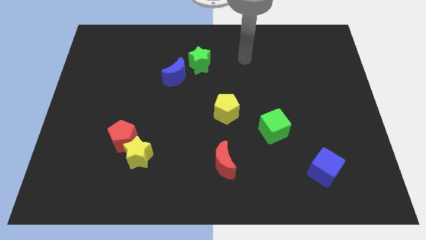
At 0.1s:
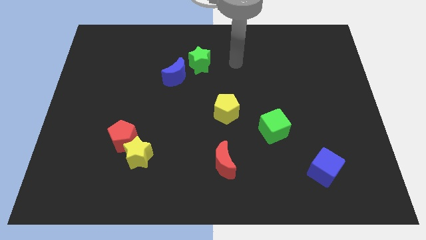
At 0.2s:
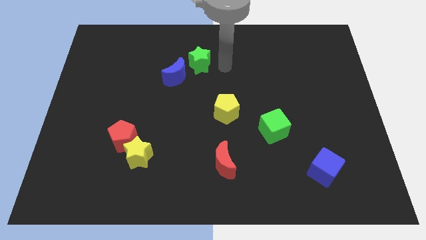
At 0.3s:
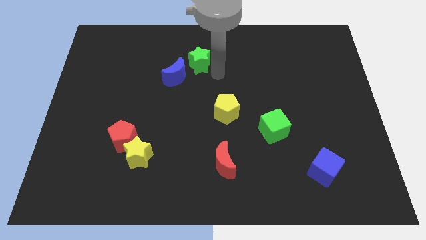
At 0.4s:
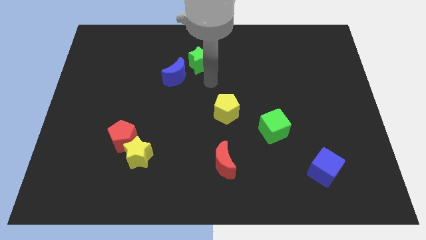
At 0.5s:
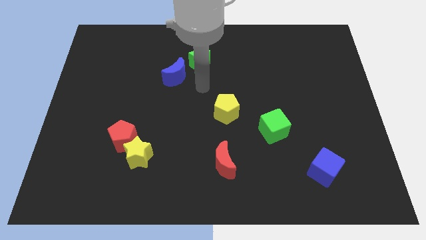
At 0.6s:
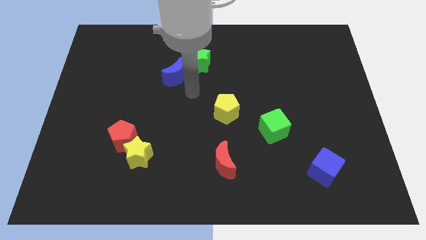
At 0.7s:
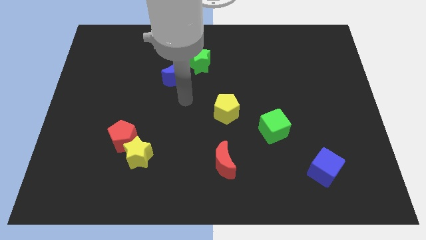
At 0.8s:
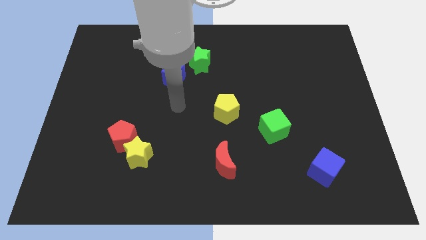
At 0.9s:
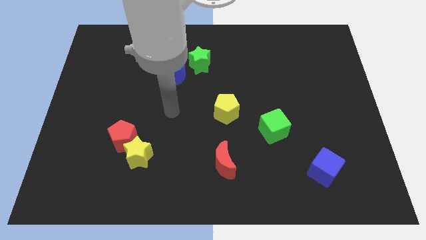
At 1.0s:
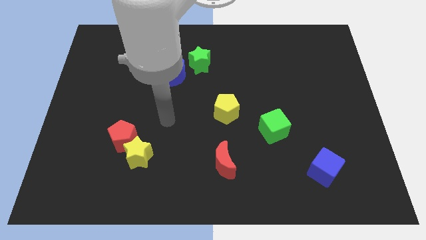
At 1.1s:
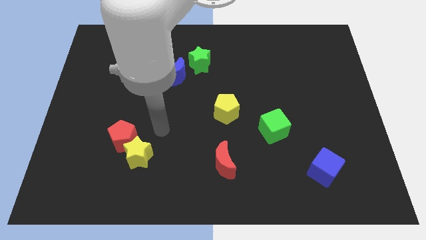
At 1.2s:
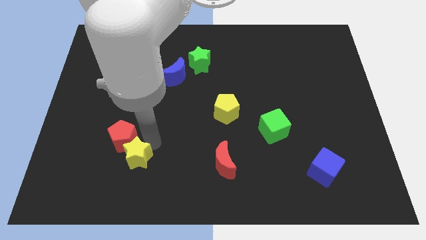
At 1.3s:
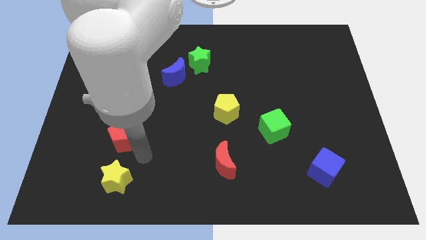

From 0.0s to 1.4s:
separate the red pentagon from the yellow star

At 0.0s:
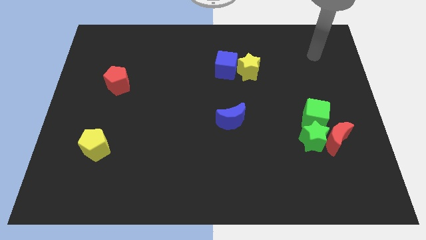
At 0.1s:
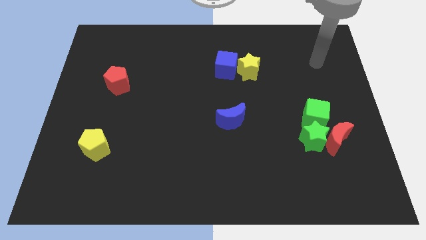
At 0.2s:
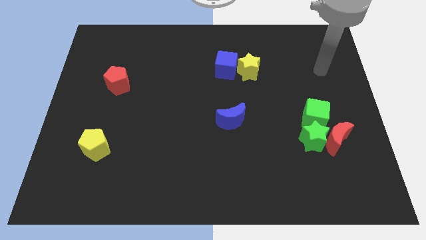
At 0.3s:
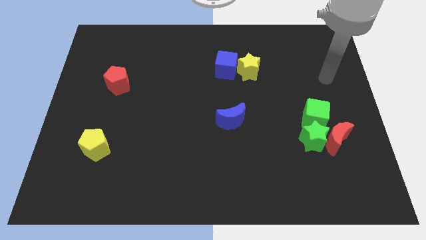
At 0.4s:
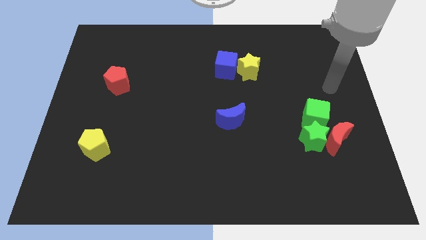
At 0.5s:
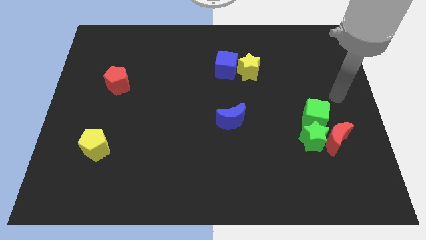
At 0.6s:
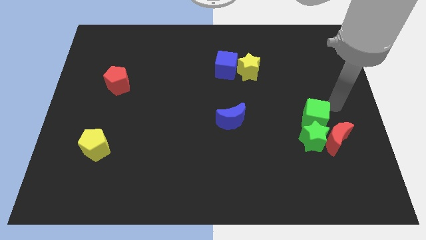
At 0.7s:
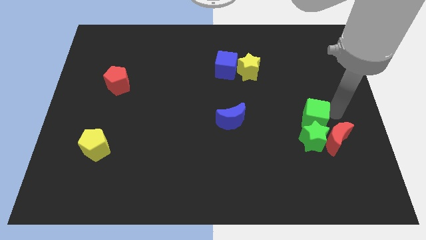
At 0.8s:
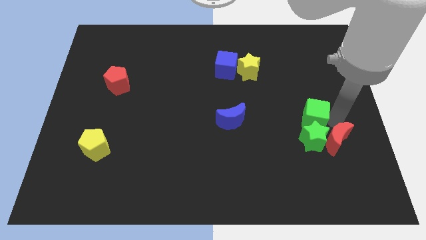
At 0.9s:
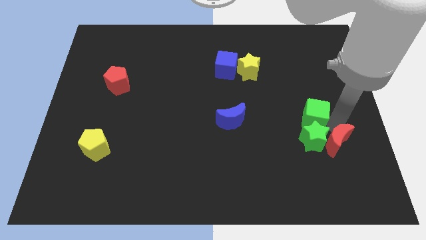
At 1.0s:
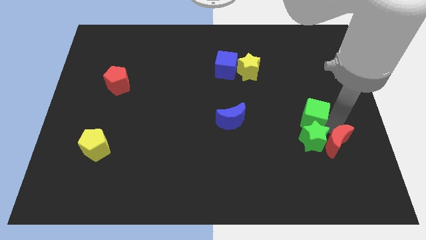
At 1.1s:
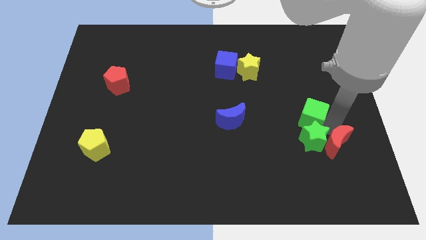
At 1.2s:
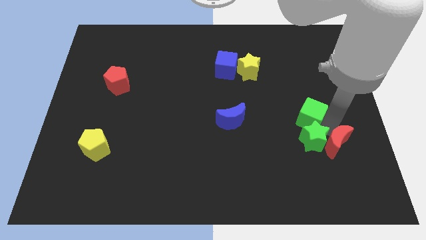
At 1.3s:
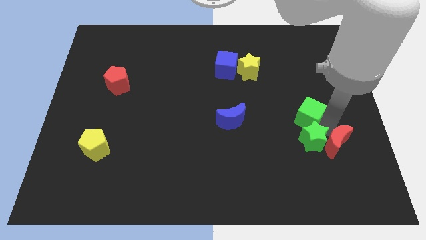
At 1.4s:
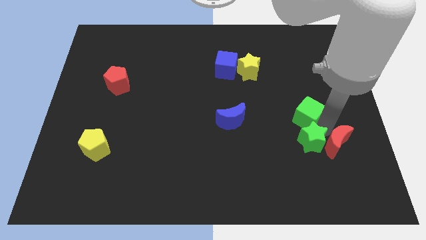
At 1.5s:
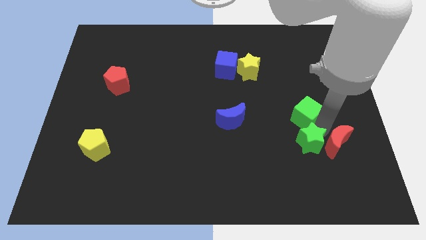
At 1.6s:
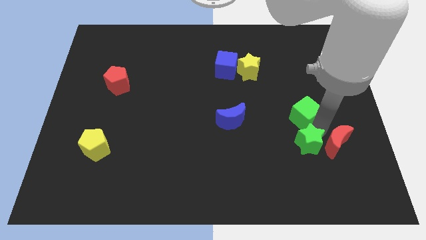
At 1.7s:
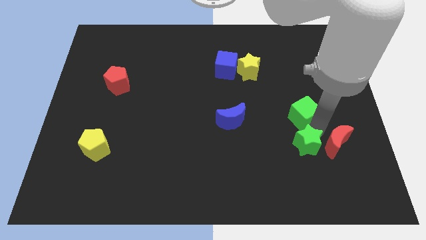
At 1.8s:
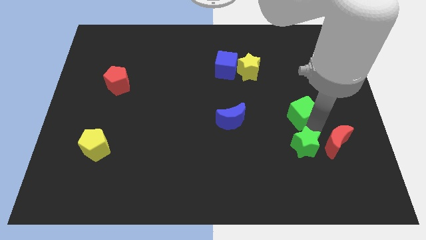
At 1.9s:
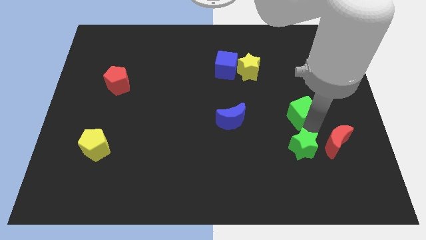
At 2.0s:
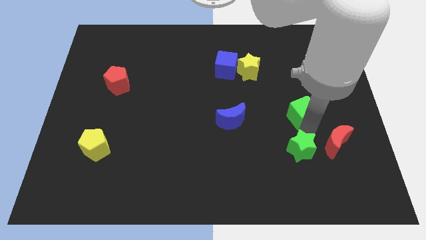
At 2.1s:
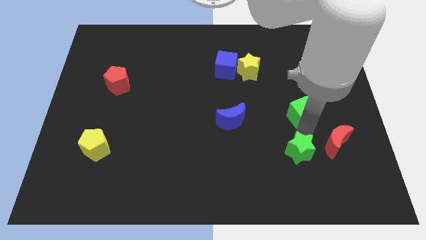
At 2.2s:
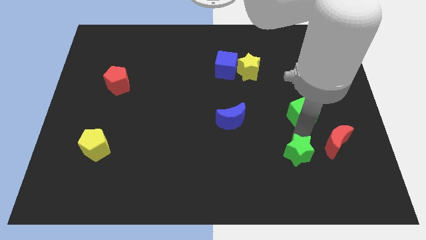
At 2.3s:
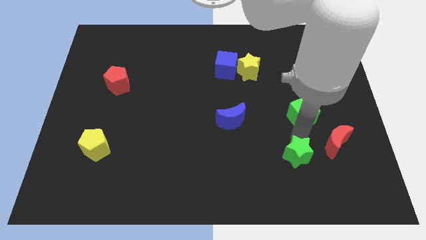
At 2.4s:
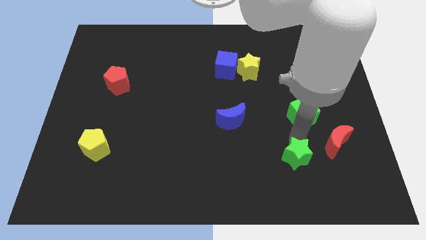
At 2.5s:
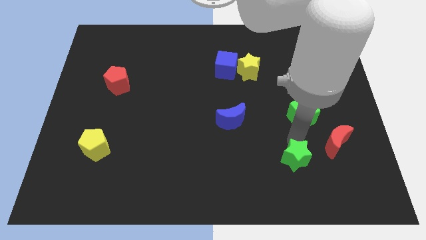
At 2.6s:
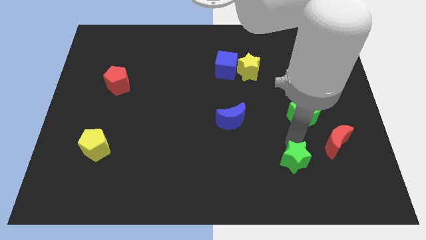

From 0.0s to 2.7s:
separate the green star from the red moon and green cube

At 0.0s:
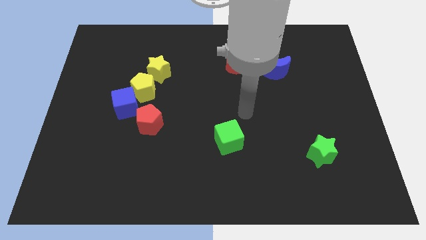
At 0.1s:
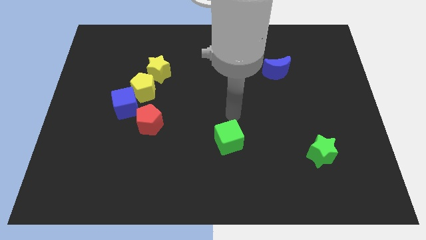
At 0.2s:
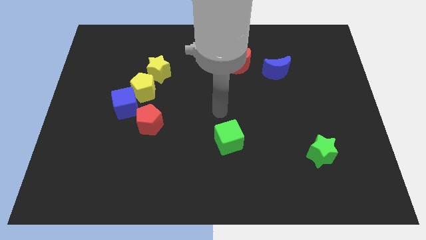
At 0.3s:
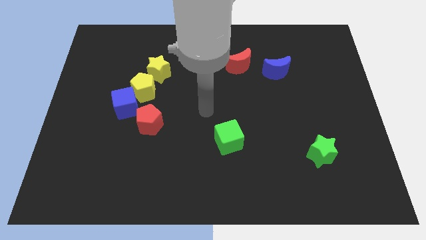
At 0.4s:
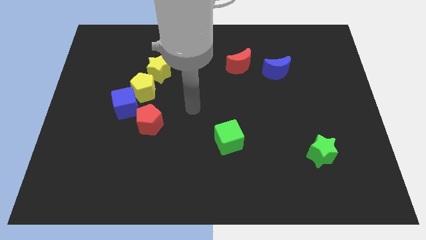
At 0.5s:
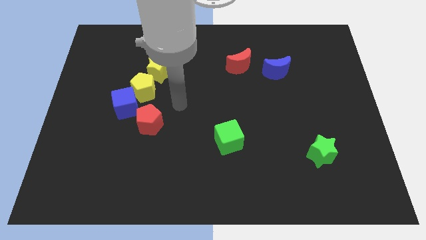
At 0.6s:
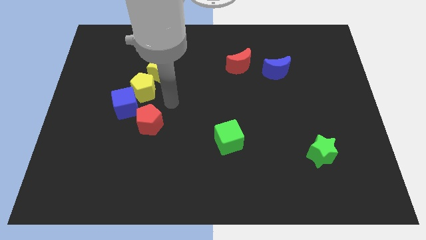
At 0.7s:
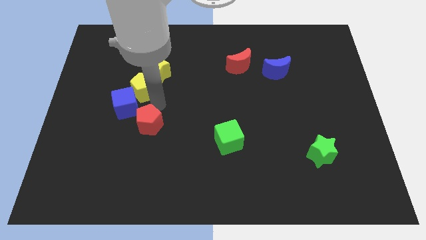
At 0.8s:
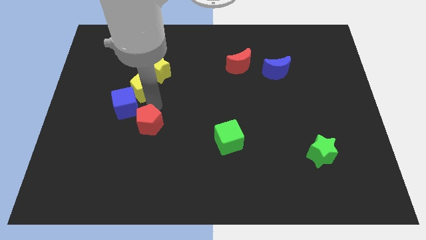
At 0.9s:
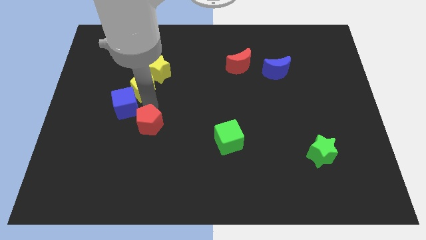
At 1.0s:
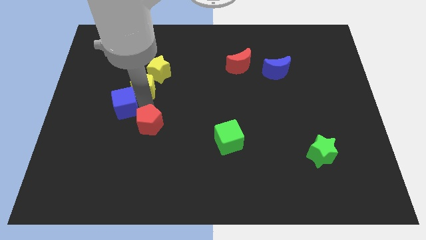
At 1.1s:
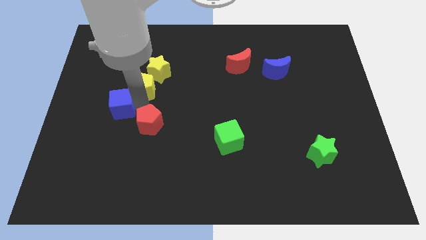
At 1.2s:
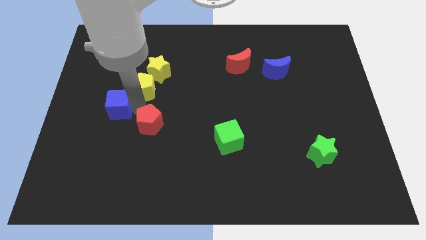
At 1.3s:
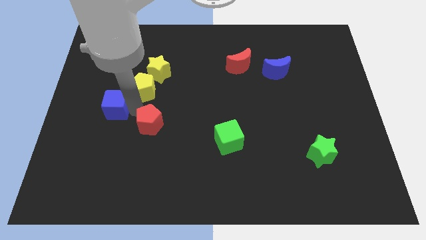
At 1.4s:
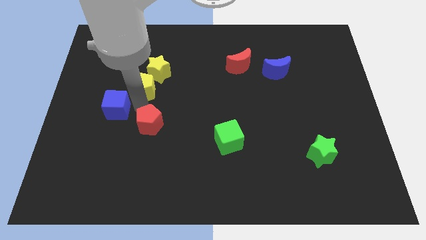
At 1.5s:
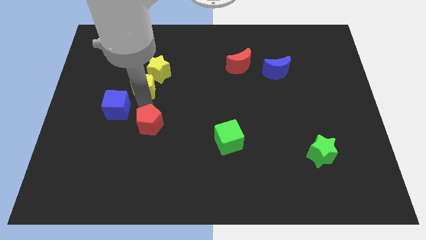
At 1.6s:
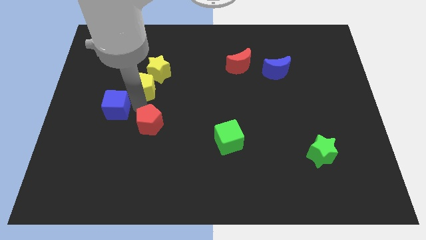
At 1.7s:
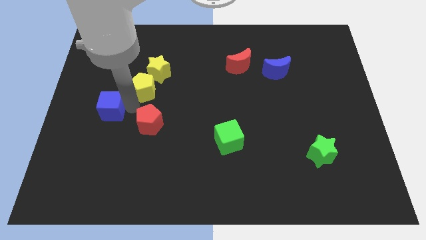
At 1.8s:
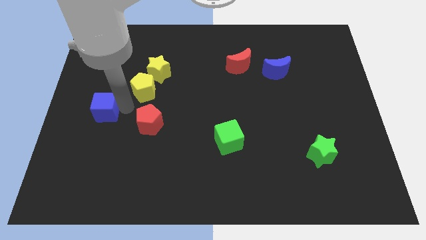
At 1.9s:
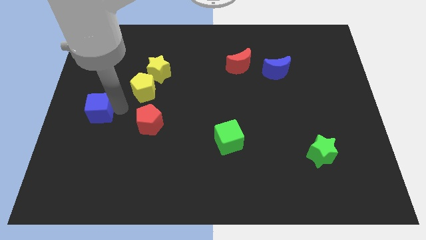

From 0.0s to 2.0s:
move the blue cube away from the yellow pentagon and red pentagon

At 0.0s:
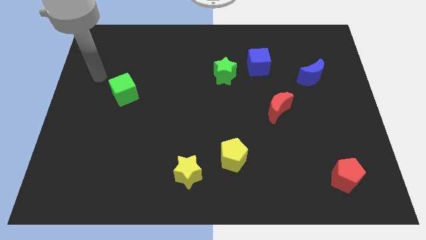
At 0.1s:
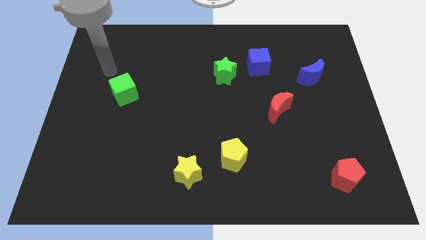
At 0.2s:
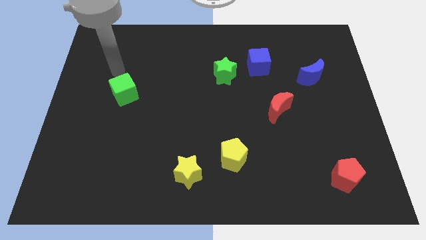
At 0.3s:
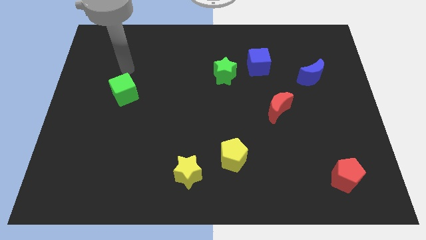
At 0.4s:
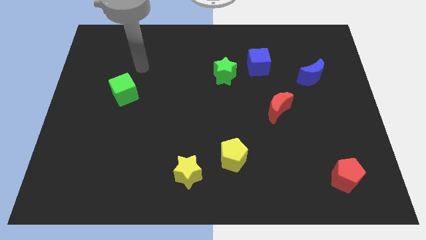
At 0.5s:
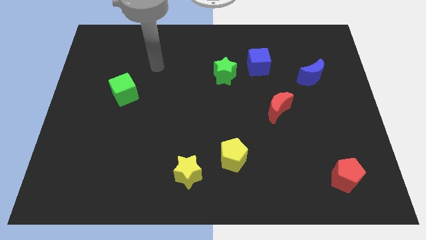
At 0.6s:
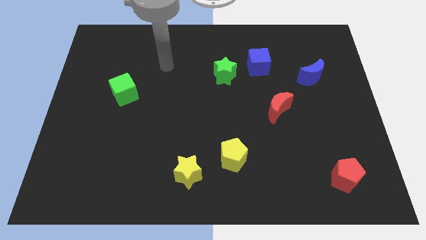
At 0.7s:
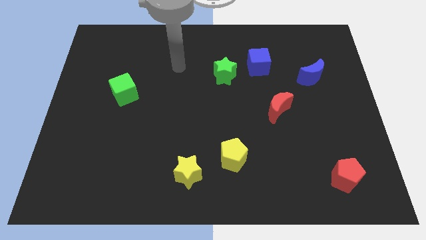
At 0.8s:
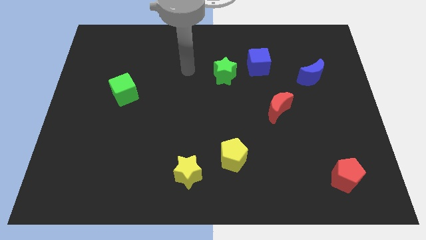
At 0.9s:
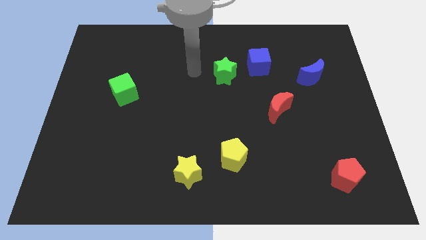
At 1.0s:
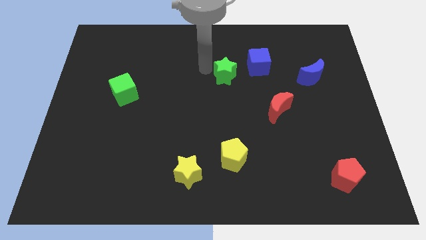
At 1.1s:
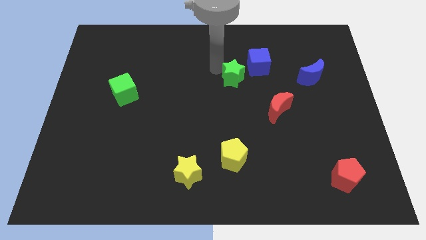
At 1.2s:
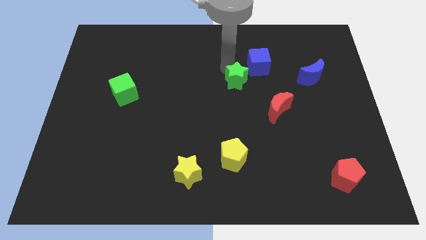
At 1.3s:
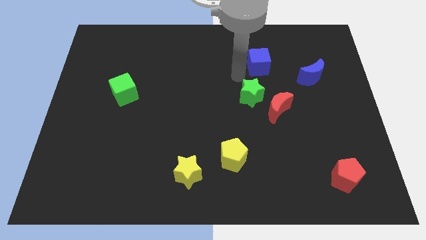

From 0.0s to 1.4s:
separate the blue cube from the green star

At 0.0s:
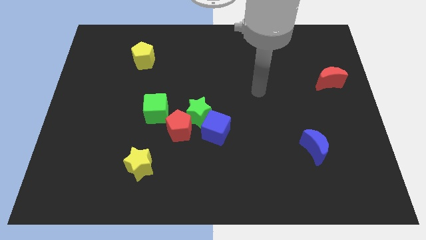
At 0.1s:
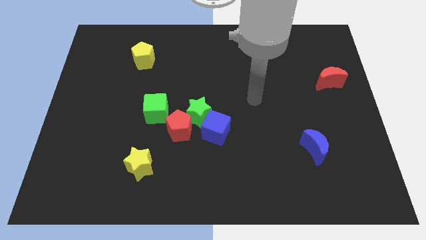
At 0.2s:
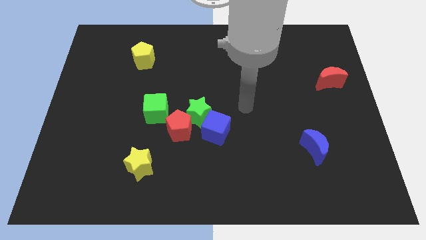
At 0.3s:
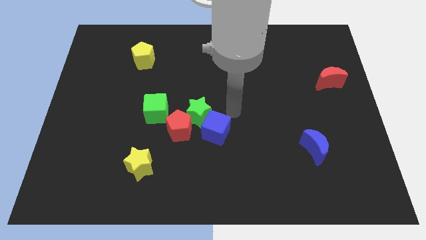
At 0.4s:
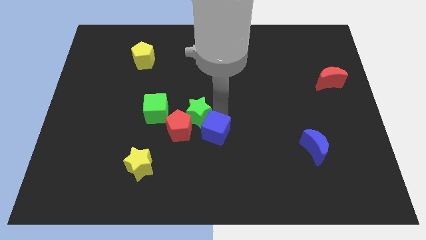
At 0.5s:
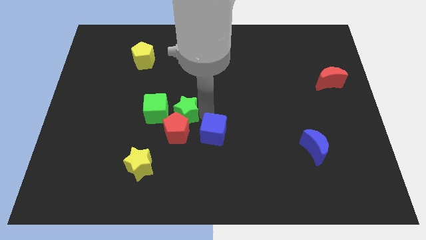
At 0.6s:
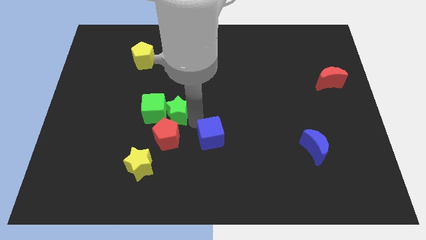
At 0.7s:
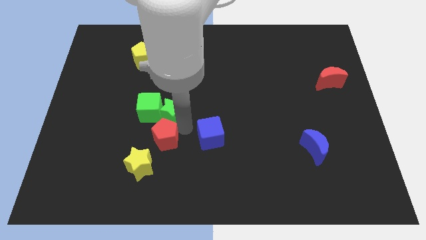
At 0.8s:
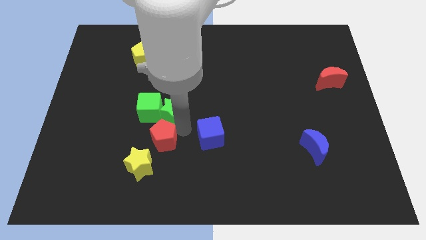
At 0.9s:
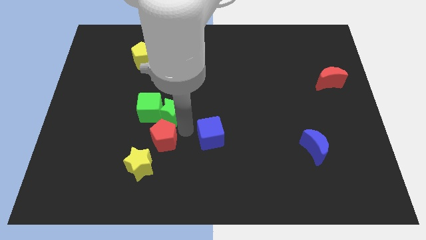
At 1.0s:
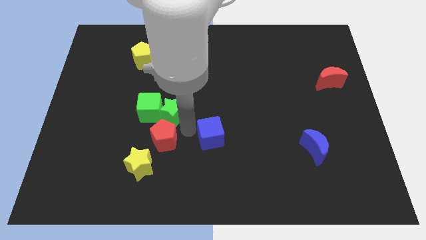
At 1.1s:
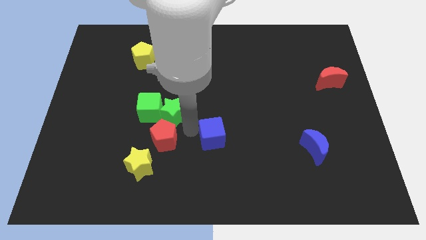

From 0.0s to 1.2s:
pull the blue cube apart from the green star and red pentagon

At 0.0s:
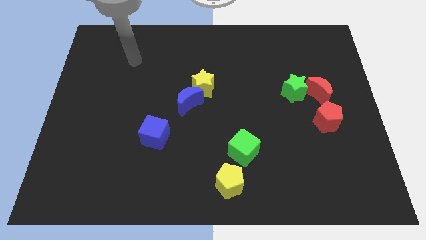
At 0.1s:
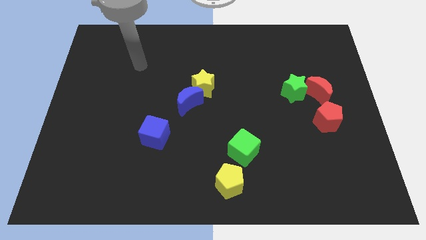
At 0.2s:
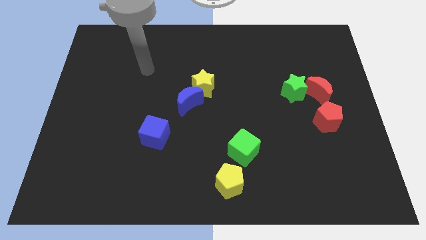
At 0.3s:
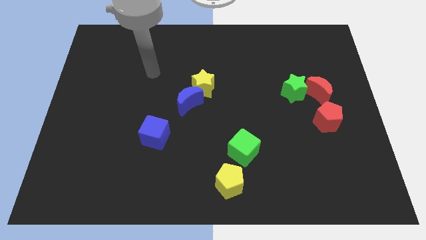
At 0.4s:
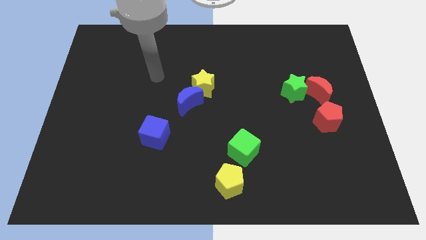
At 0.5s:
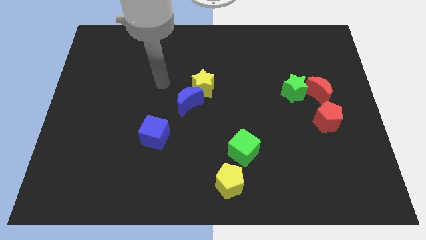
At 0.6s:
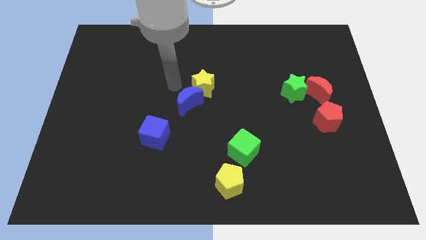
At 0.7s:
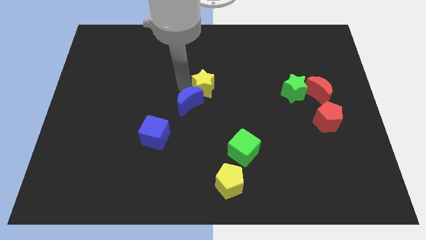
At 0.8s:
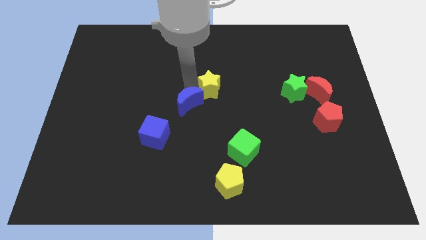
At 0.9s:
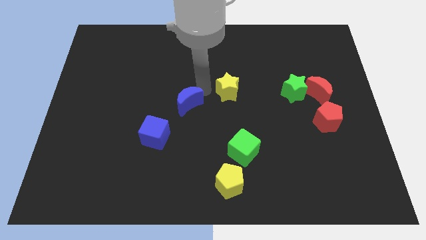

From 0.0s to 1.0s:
move the blue moon away from the yellow star
